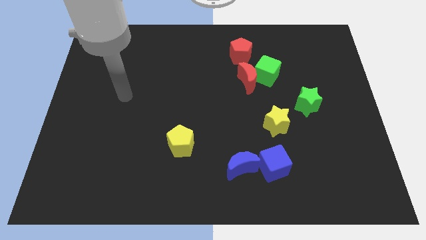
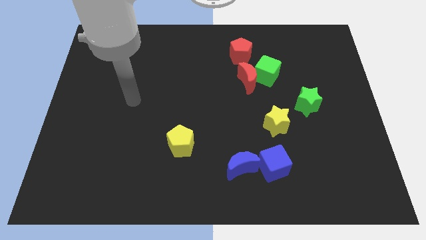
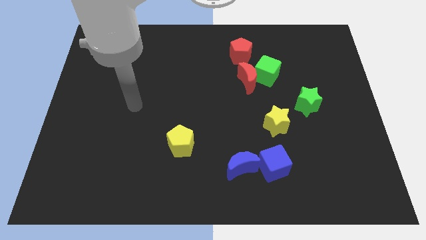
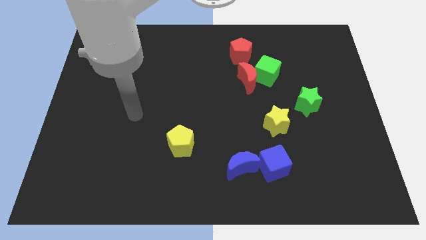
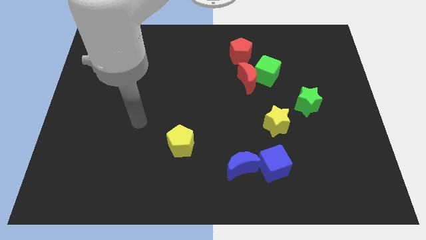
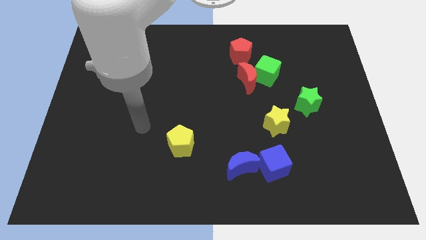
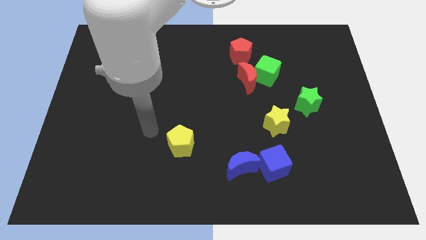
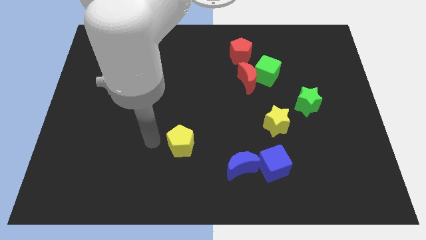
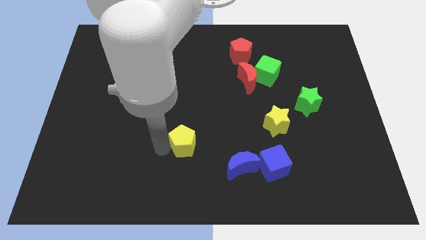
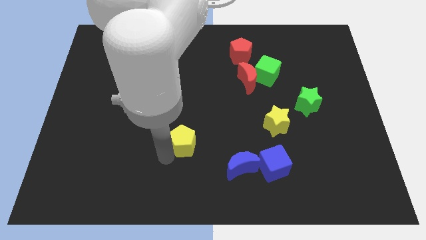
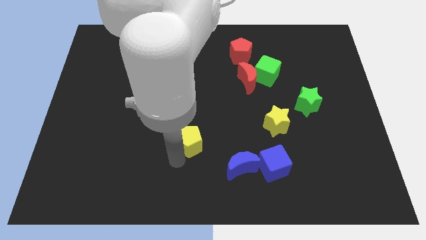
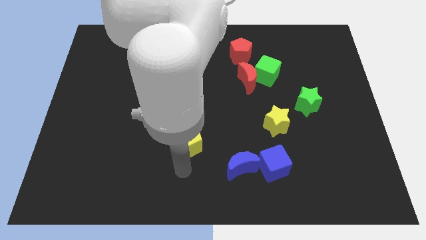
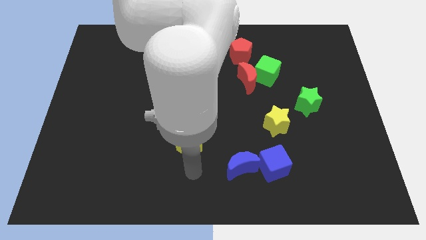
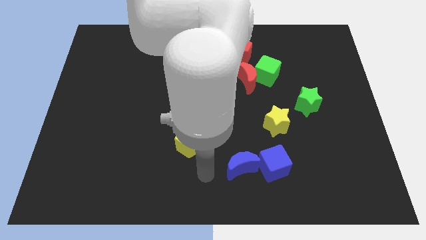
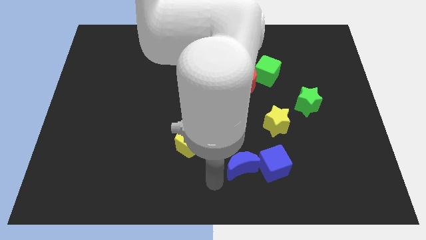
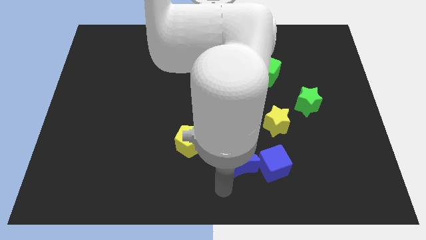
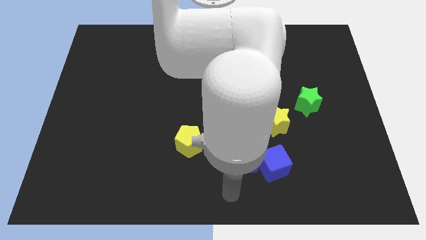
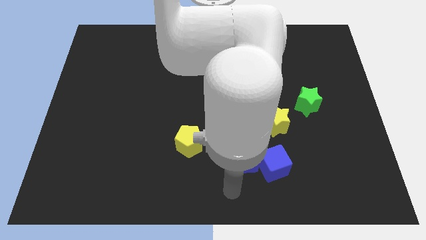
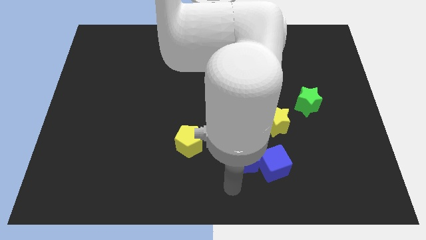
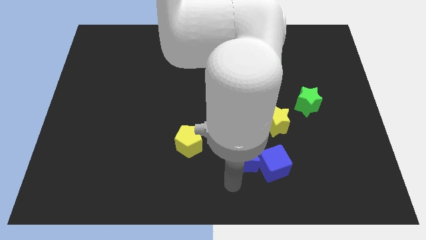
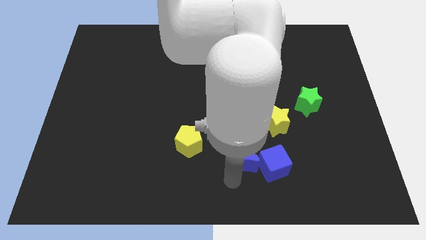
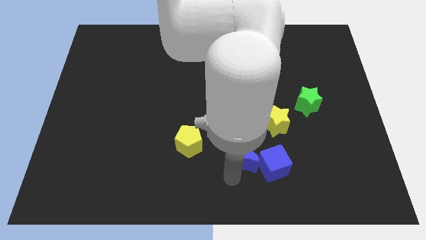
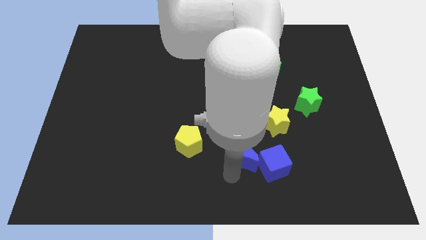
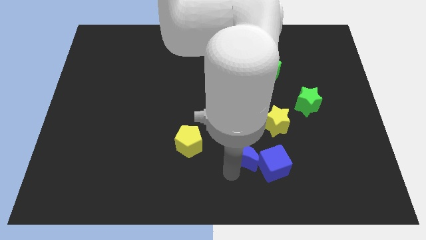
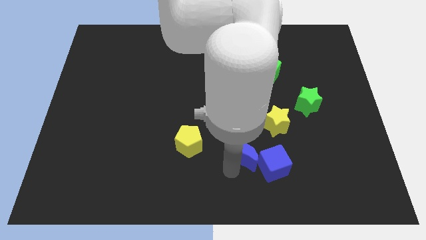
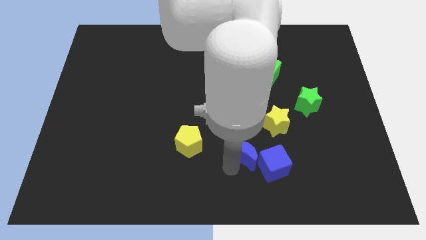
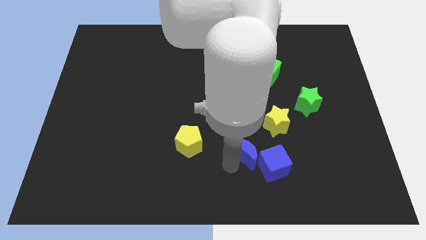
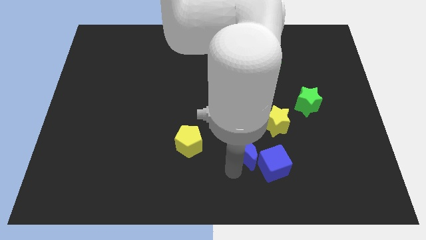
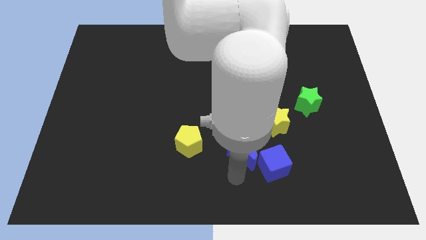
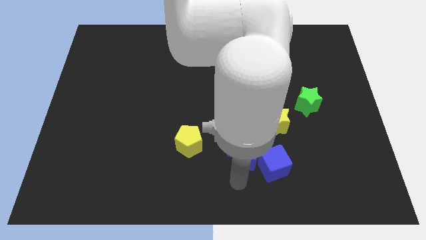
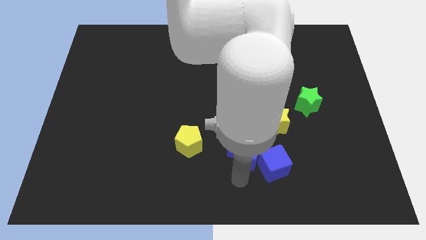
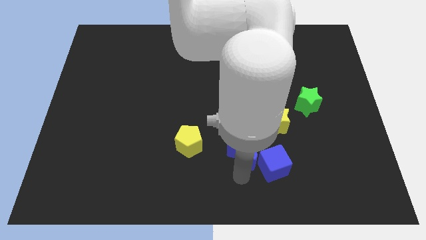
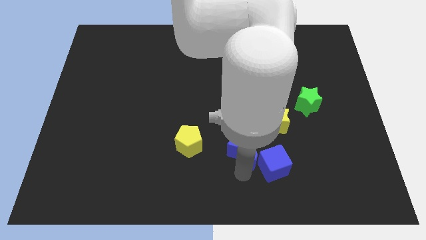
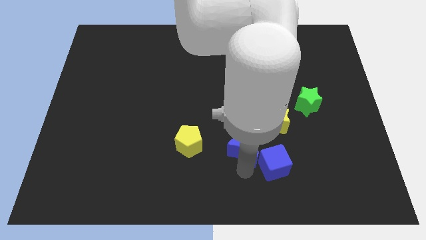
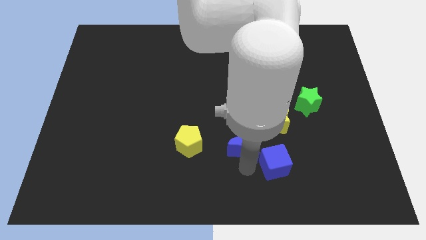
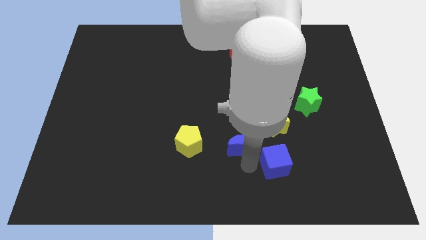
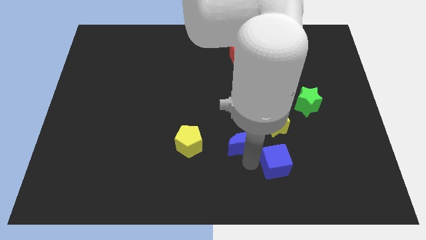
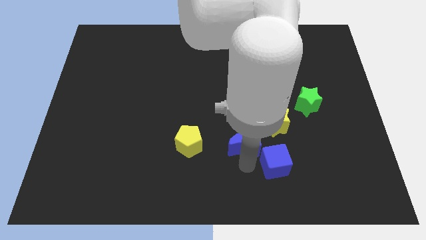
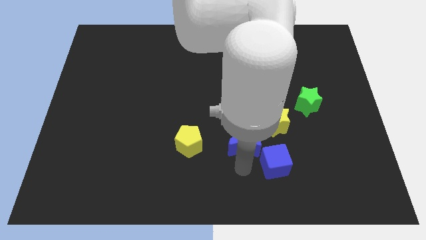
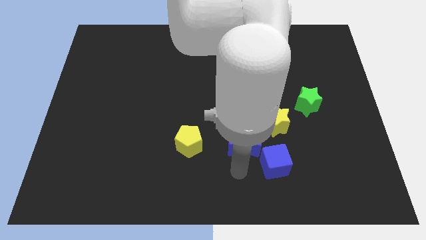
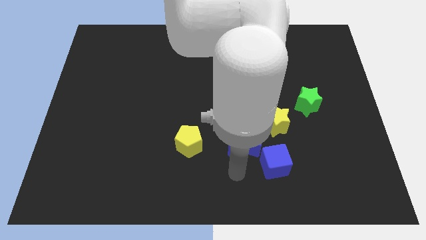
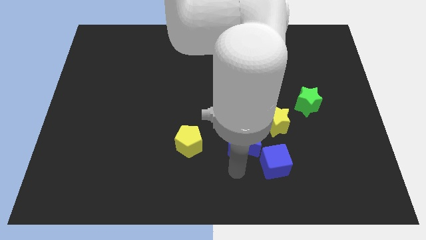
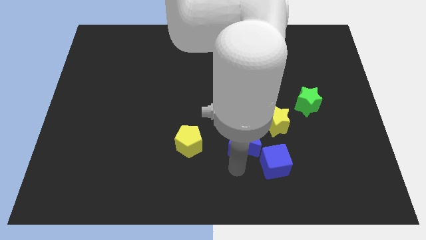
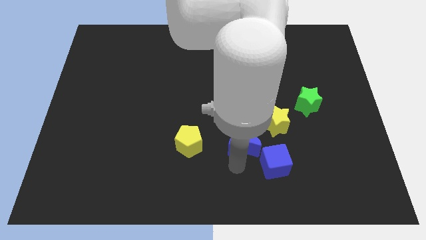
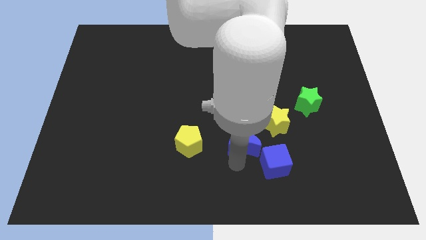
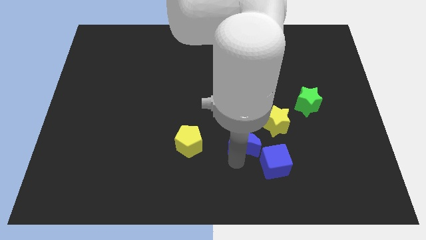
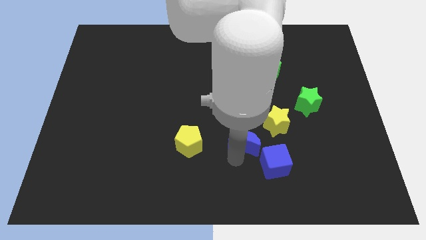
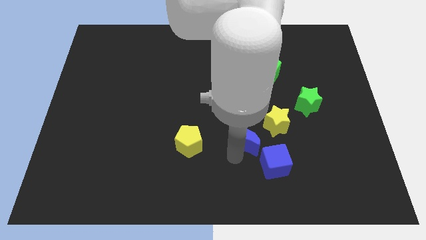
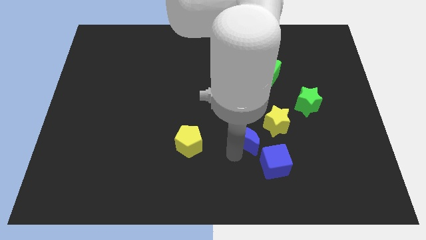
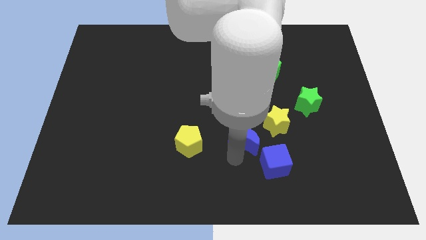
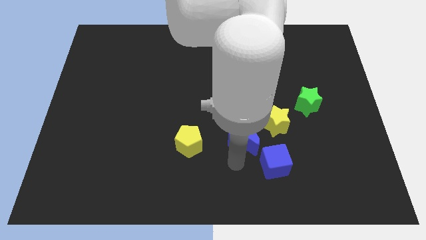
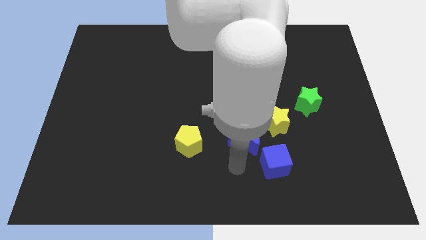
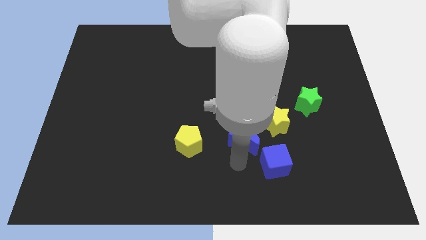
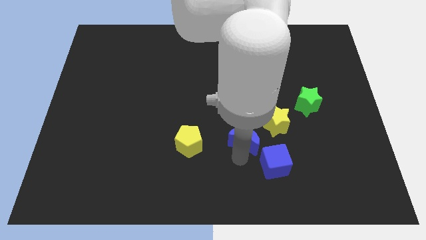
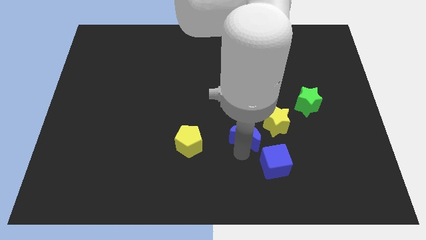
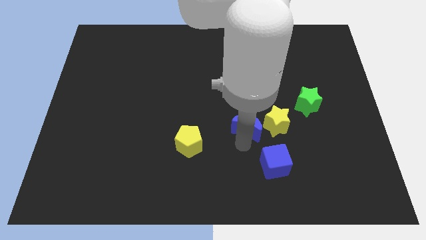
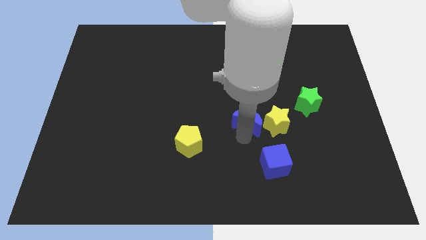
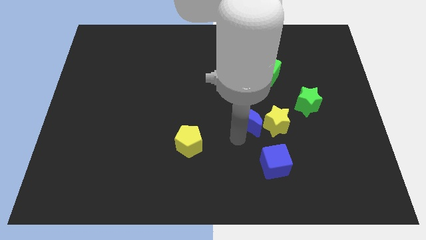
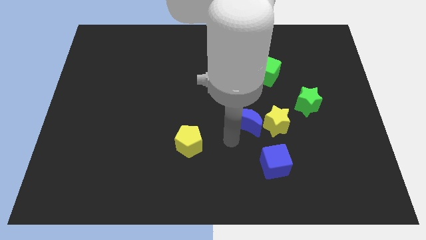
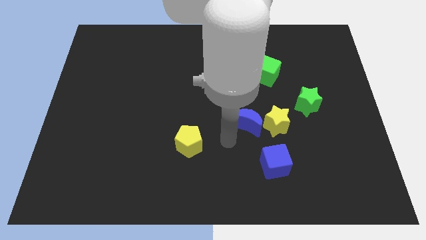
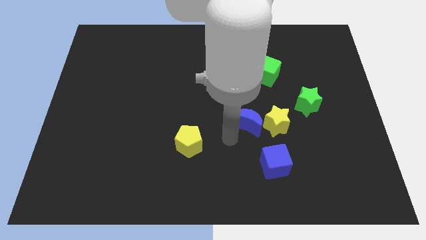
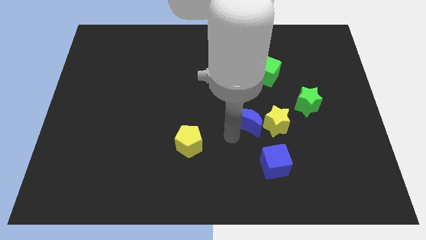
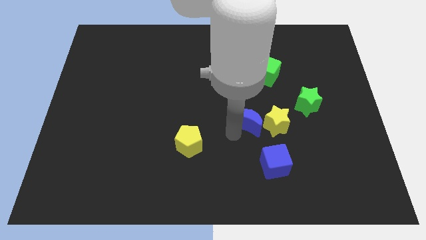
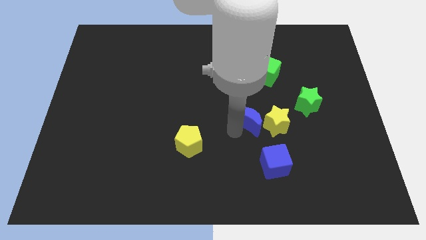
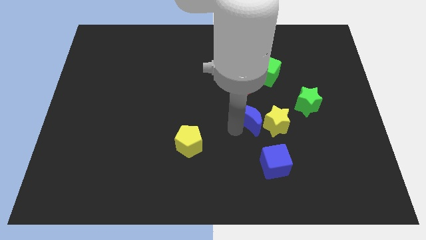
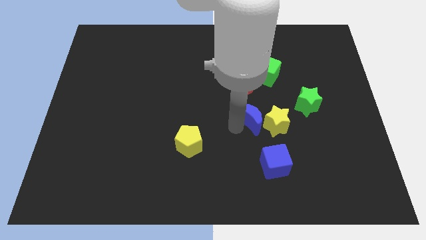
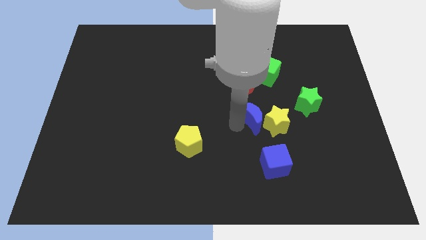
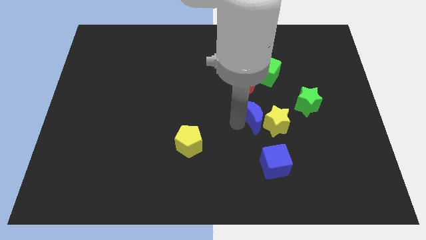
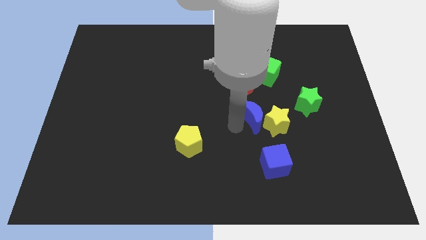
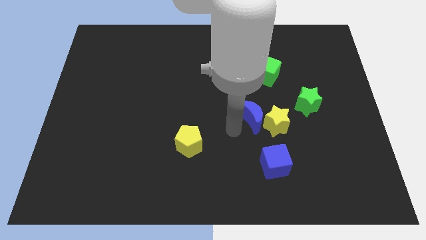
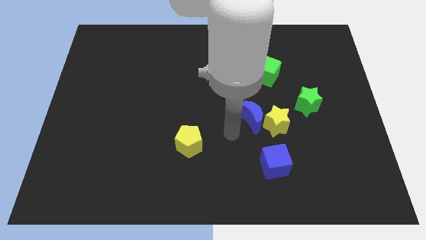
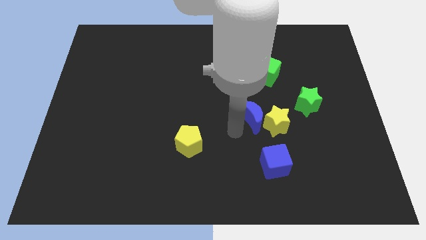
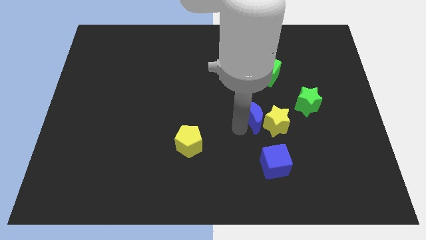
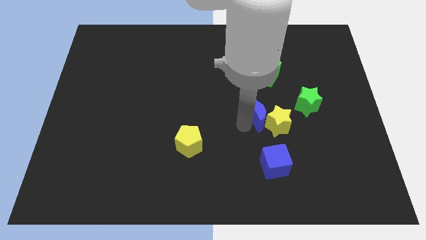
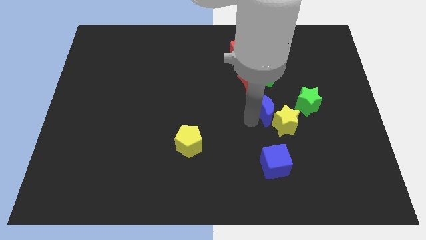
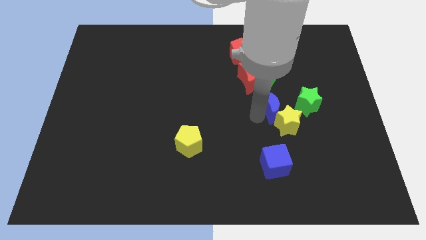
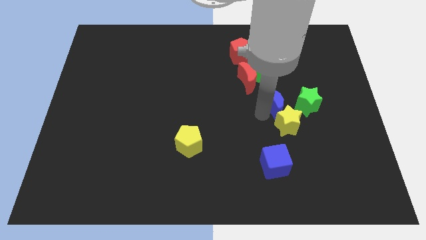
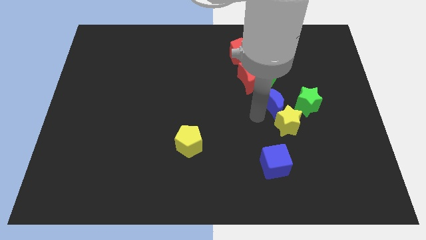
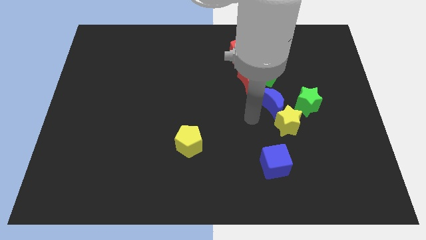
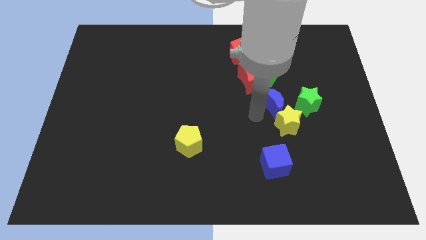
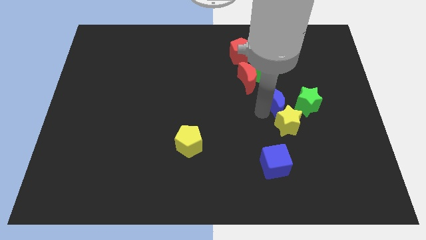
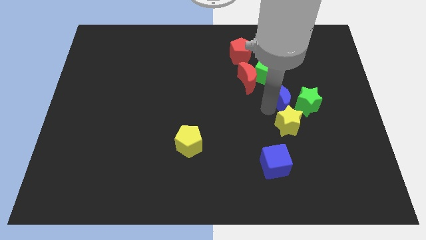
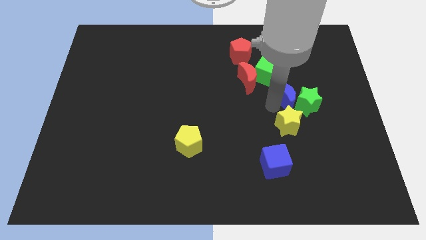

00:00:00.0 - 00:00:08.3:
slide the blue moon diagonally up and to the right
